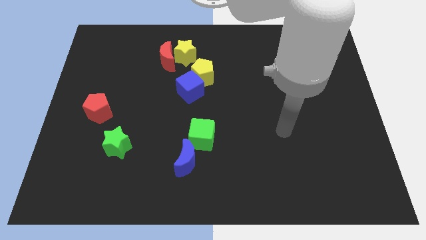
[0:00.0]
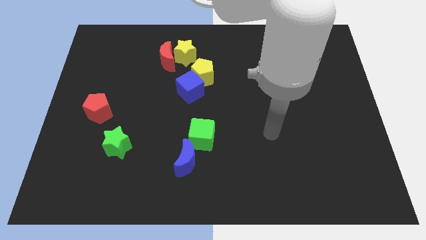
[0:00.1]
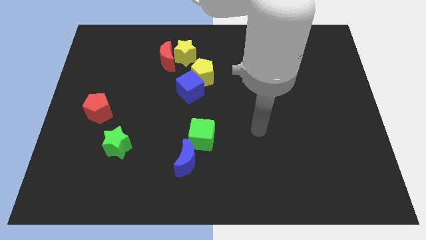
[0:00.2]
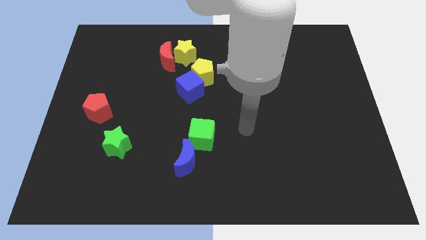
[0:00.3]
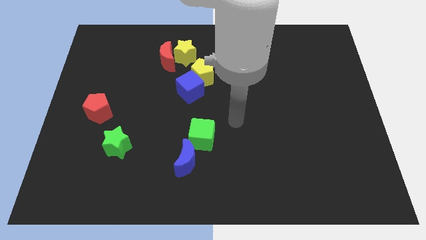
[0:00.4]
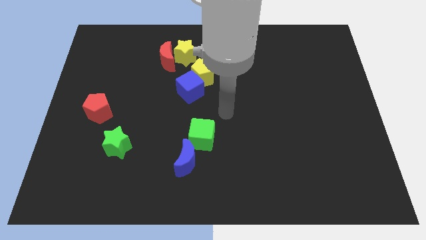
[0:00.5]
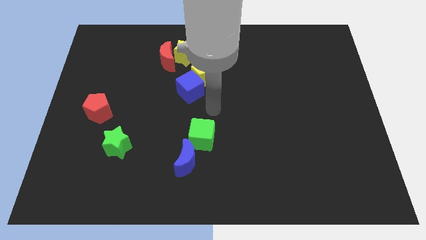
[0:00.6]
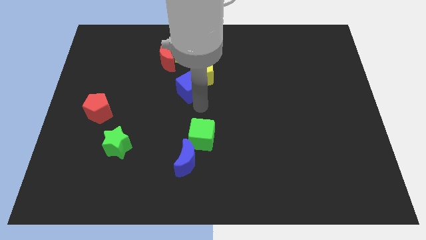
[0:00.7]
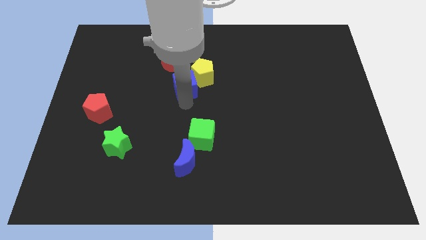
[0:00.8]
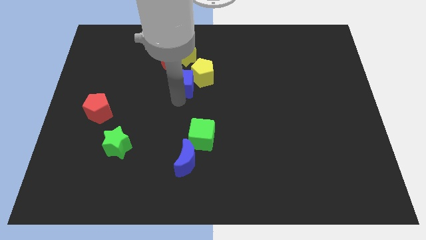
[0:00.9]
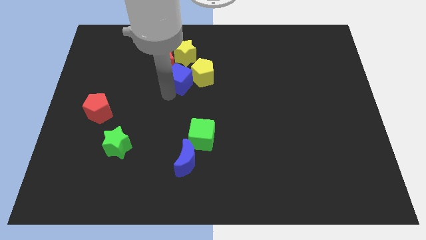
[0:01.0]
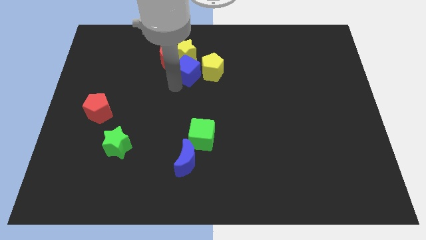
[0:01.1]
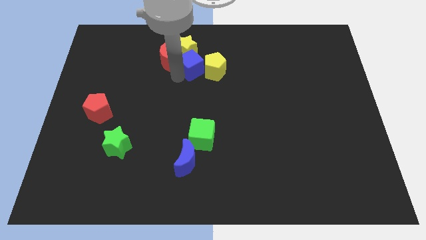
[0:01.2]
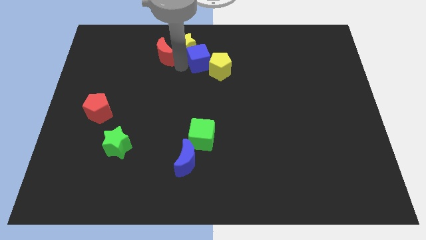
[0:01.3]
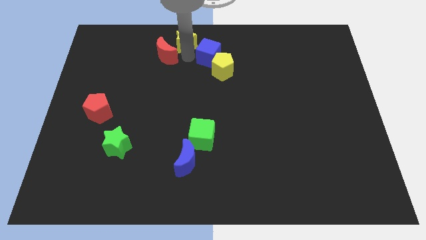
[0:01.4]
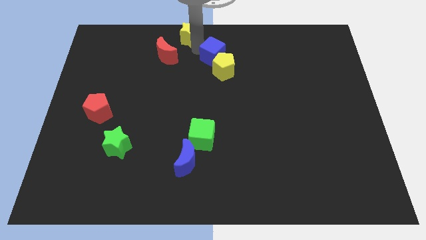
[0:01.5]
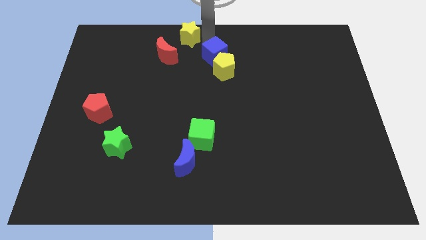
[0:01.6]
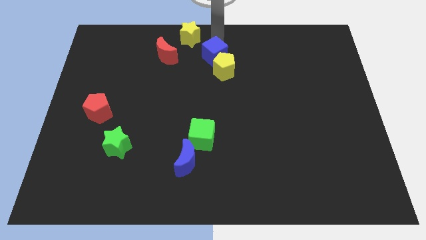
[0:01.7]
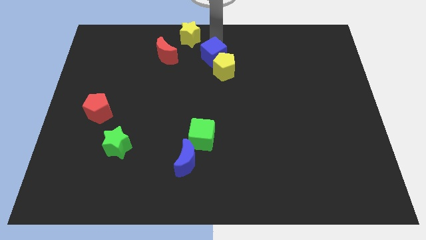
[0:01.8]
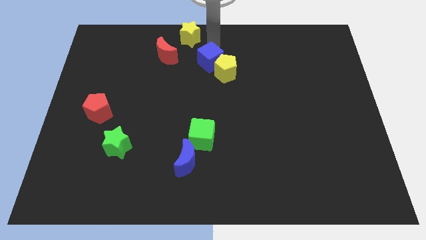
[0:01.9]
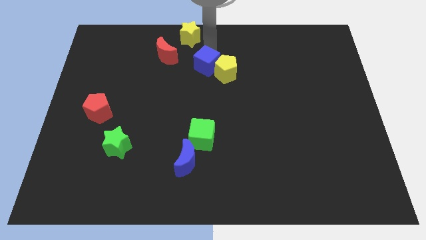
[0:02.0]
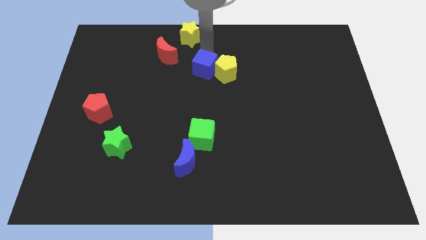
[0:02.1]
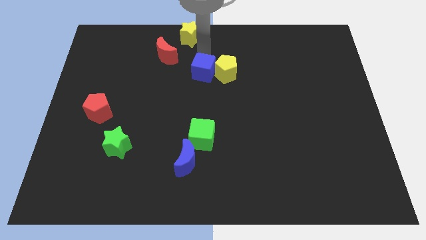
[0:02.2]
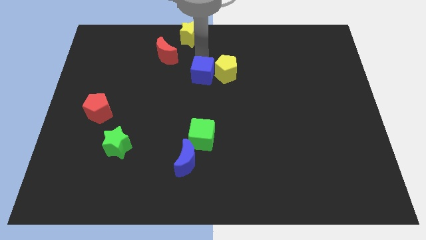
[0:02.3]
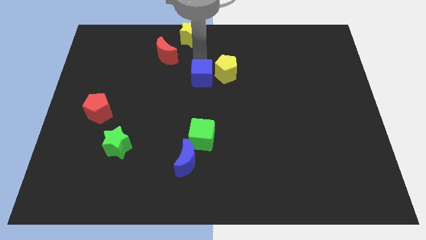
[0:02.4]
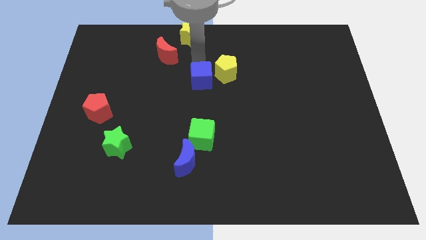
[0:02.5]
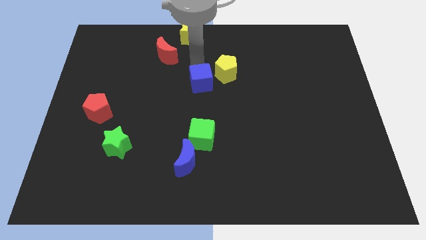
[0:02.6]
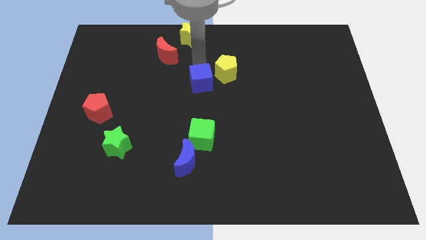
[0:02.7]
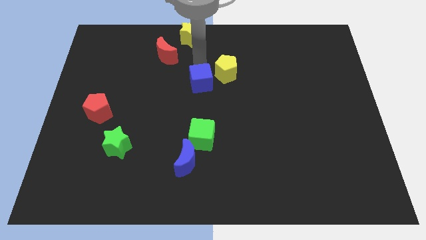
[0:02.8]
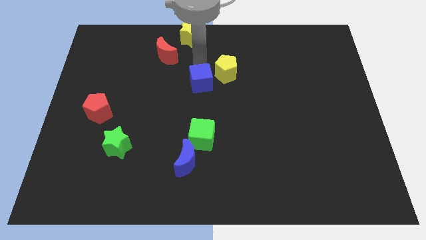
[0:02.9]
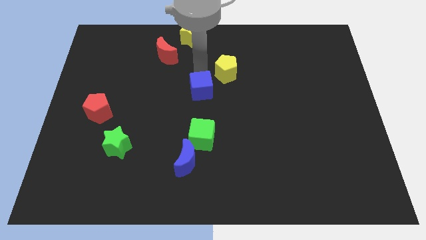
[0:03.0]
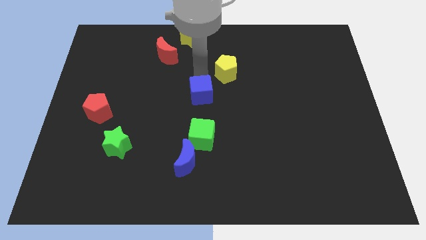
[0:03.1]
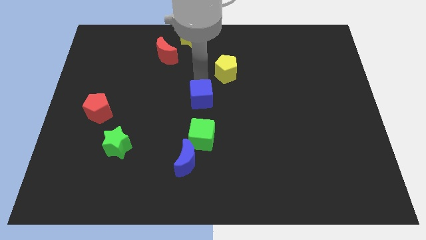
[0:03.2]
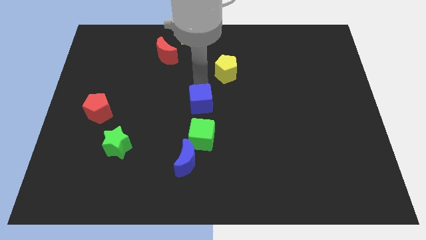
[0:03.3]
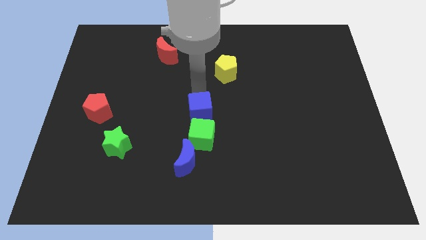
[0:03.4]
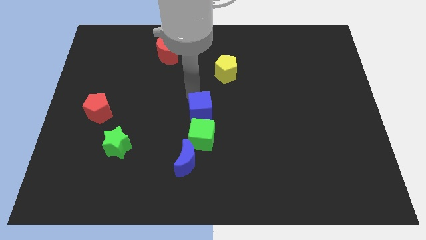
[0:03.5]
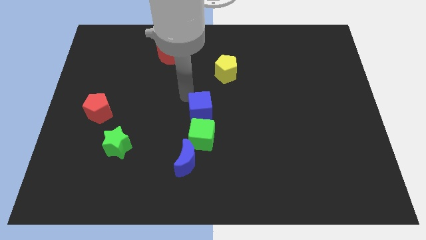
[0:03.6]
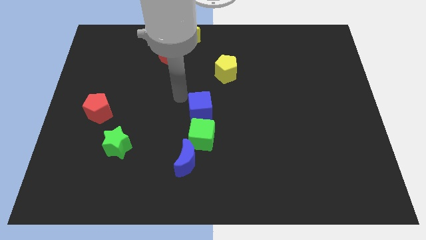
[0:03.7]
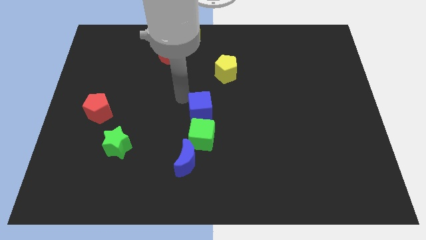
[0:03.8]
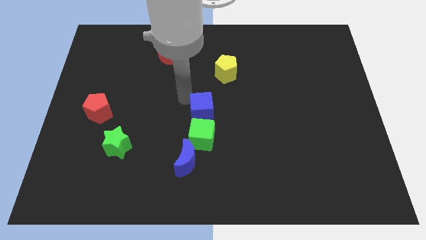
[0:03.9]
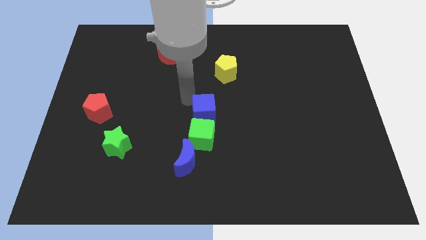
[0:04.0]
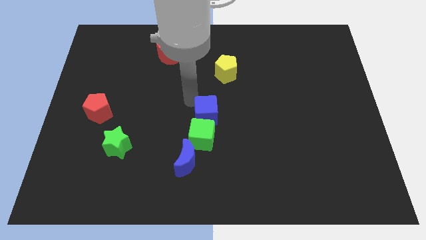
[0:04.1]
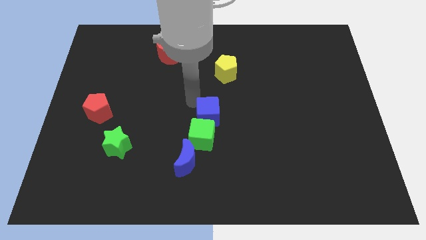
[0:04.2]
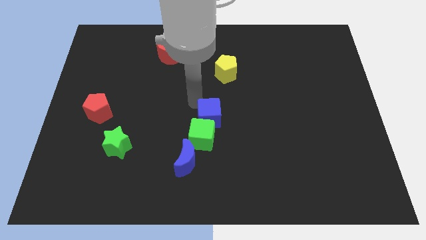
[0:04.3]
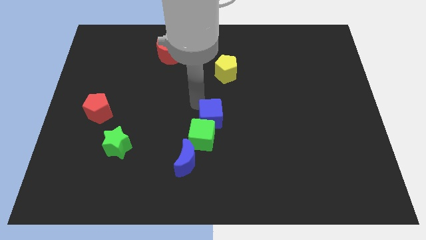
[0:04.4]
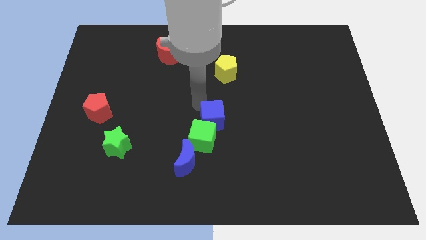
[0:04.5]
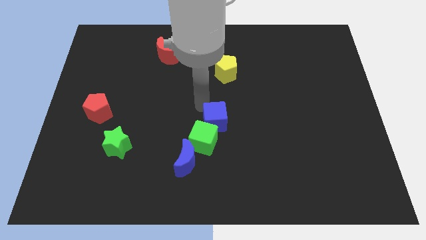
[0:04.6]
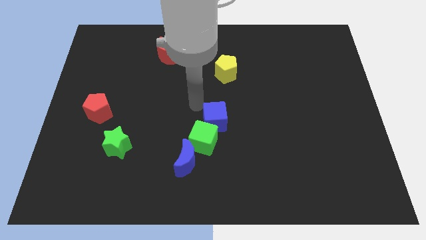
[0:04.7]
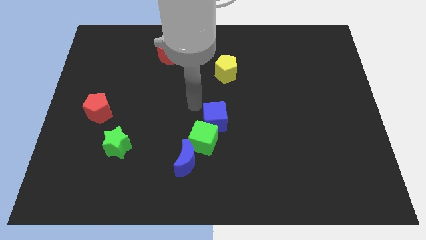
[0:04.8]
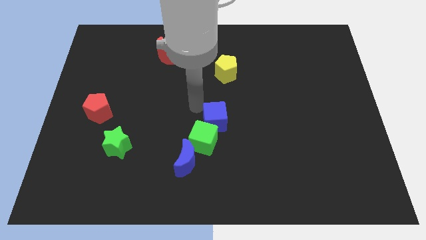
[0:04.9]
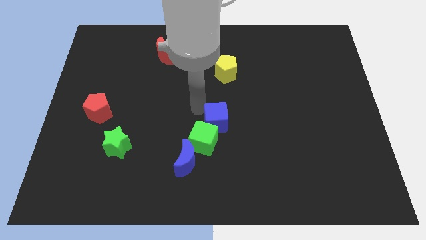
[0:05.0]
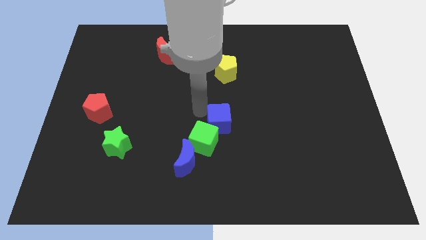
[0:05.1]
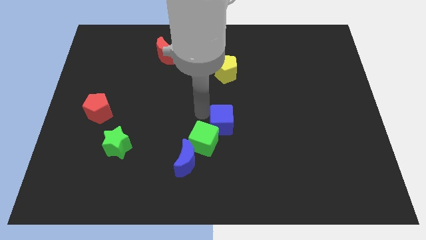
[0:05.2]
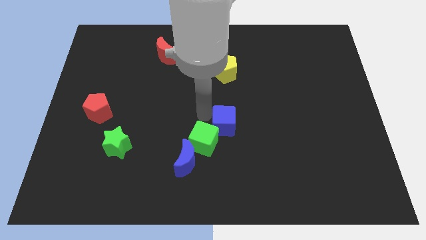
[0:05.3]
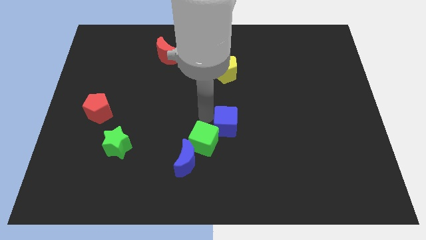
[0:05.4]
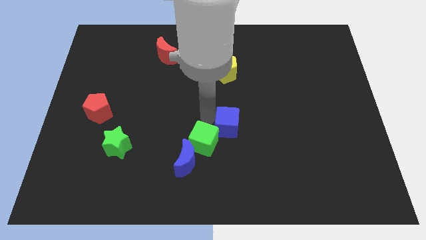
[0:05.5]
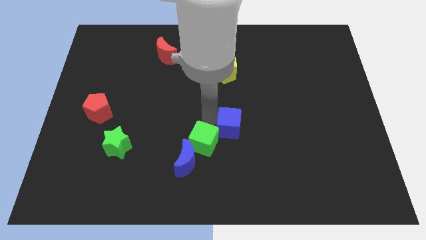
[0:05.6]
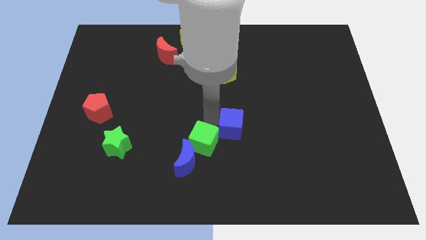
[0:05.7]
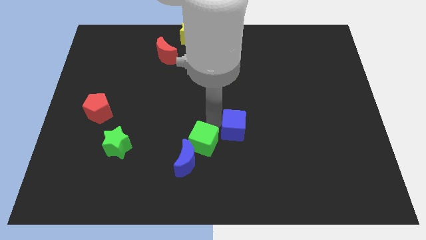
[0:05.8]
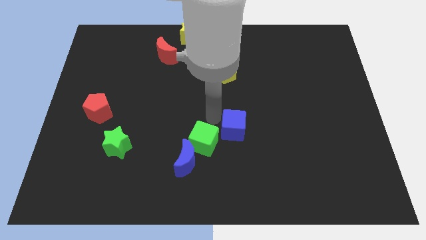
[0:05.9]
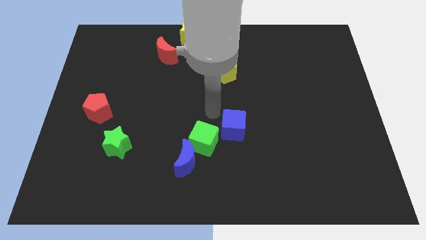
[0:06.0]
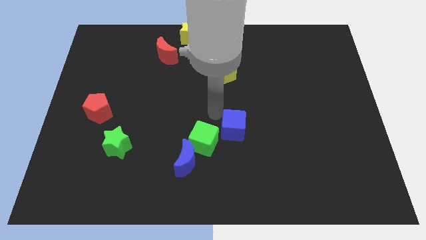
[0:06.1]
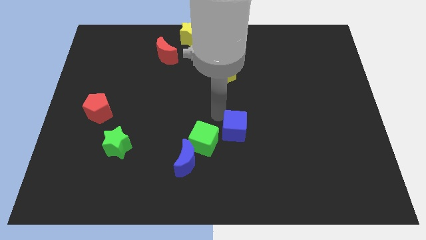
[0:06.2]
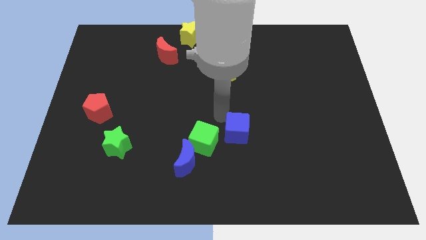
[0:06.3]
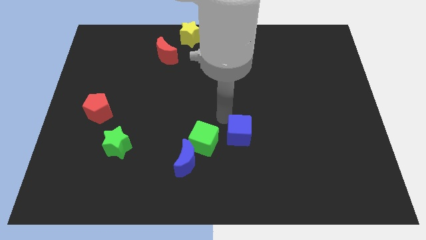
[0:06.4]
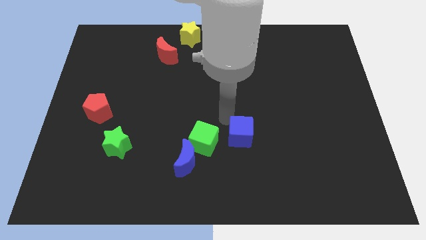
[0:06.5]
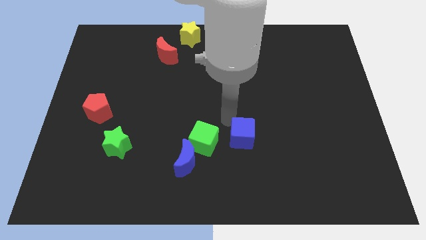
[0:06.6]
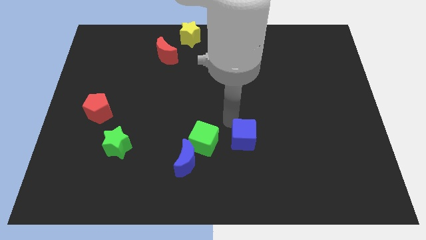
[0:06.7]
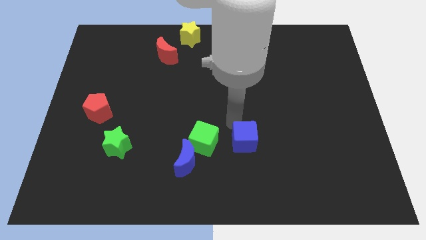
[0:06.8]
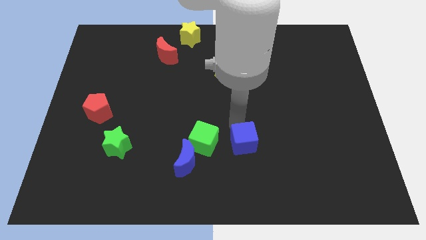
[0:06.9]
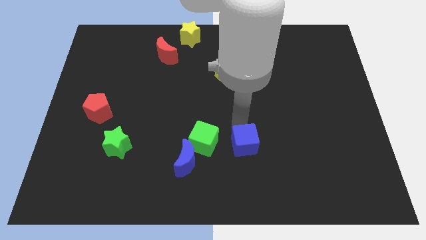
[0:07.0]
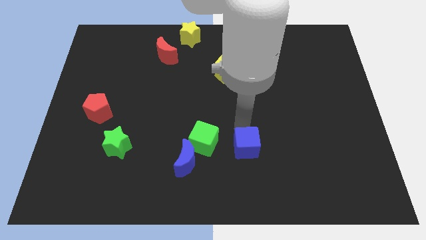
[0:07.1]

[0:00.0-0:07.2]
move the blue cube down and right

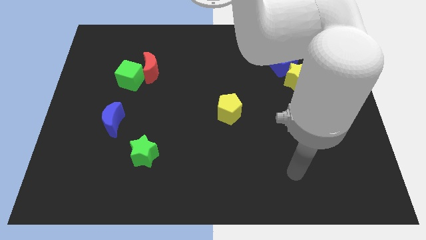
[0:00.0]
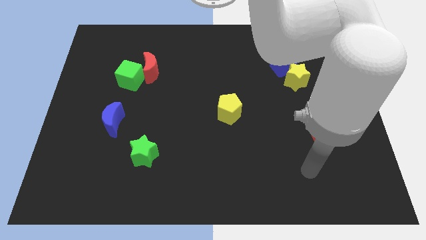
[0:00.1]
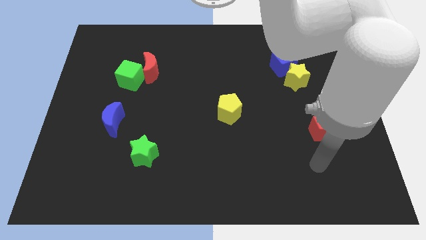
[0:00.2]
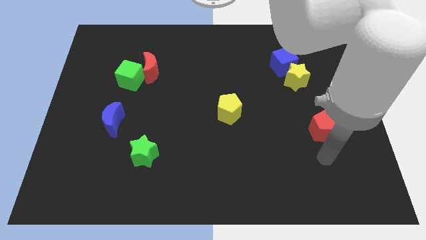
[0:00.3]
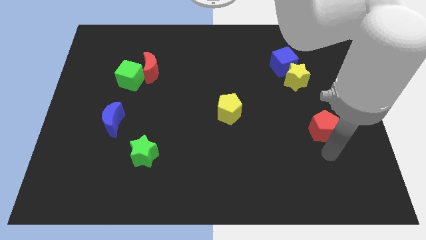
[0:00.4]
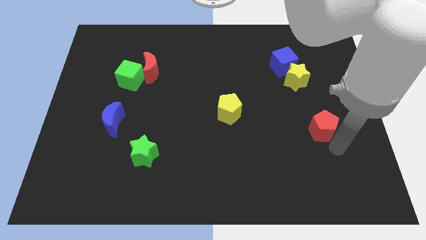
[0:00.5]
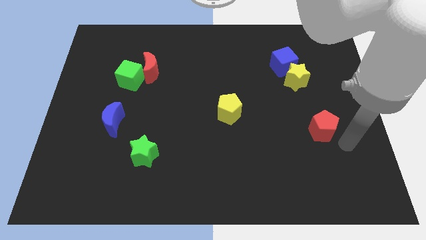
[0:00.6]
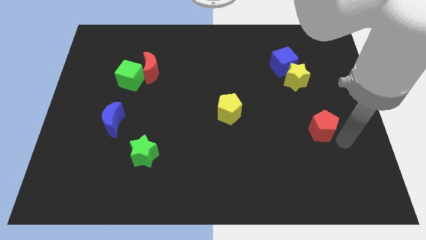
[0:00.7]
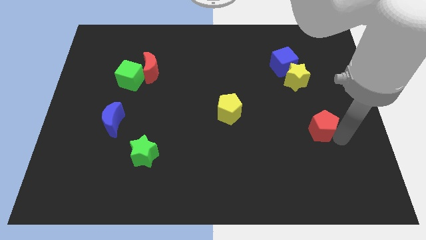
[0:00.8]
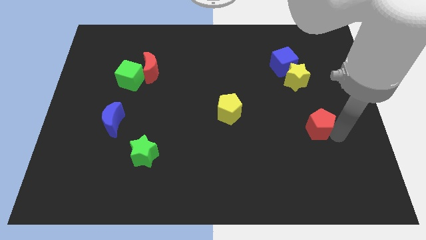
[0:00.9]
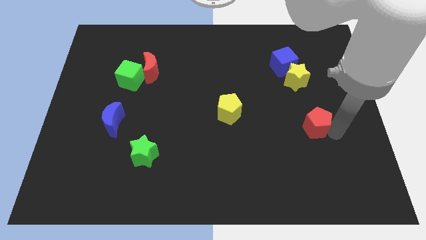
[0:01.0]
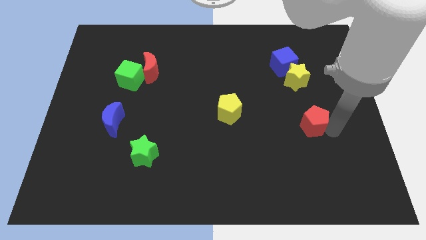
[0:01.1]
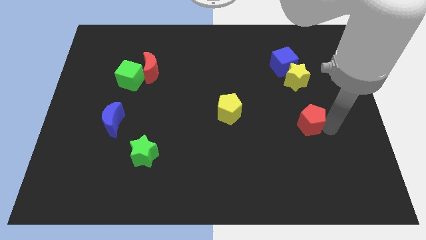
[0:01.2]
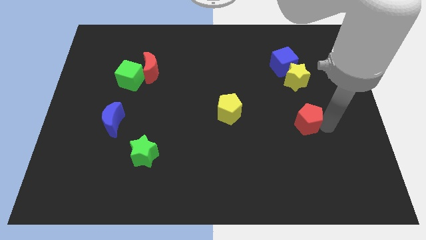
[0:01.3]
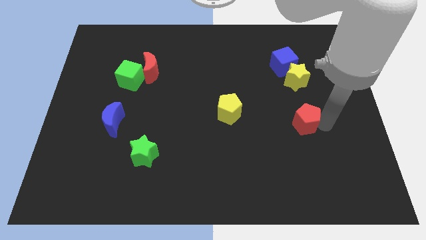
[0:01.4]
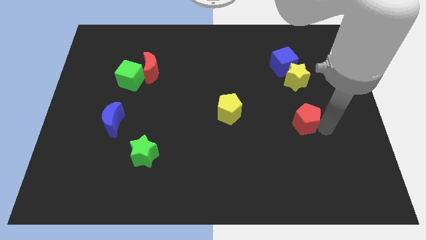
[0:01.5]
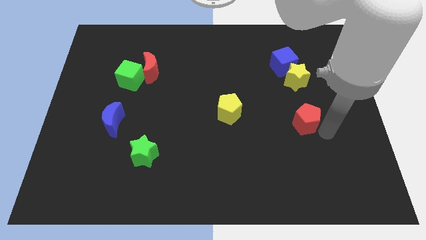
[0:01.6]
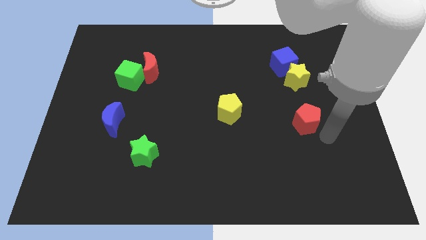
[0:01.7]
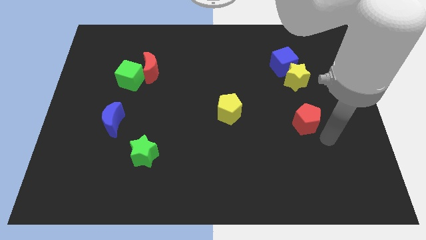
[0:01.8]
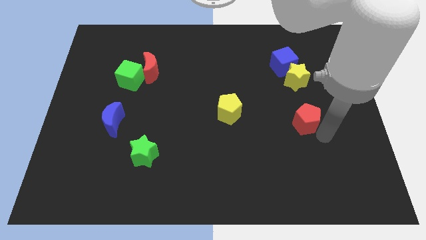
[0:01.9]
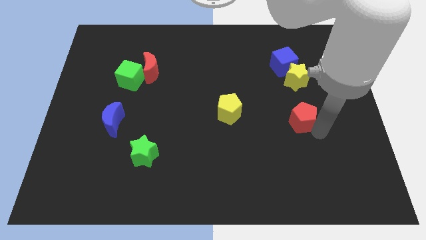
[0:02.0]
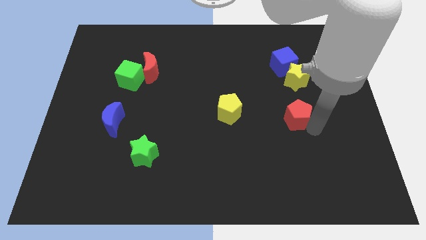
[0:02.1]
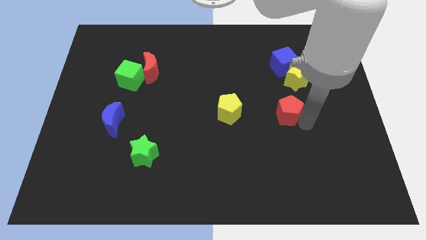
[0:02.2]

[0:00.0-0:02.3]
move the red pentagon up and then left a bit
